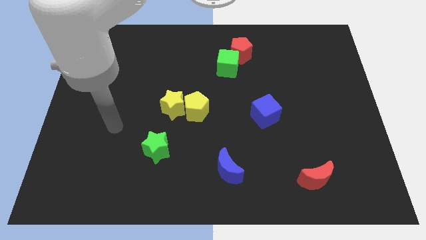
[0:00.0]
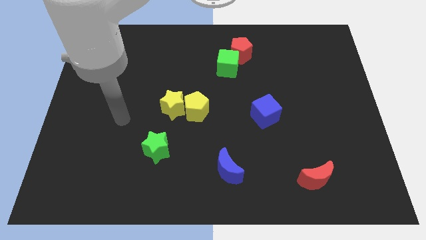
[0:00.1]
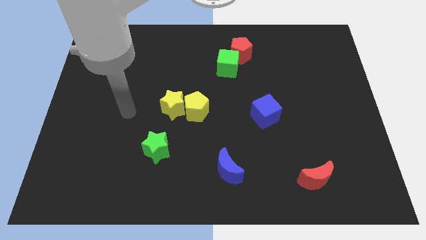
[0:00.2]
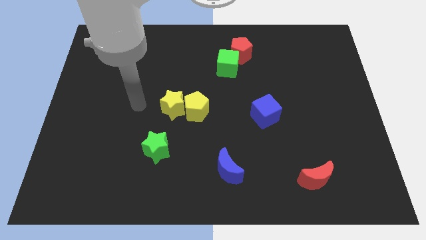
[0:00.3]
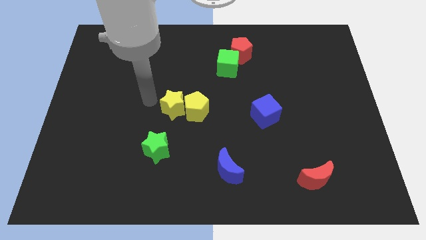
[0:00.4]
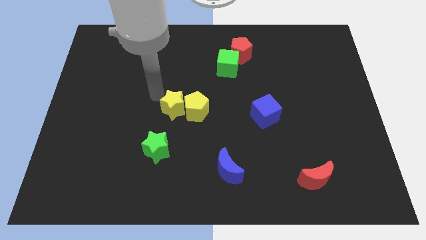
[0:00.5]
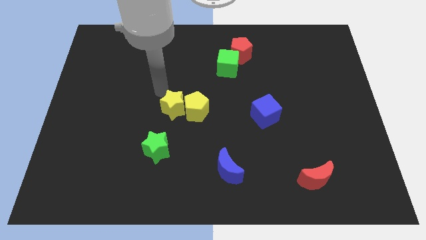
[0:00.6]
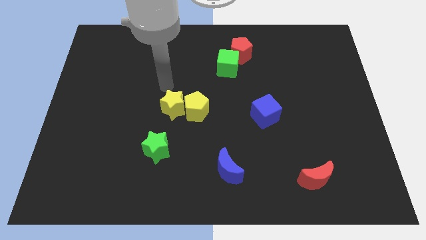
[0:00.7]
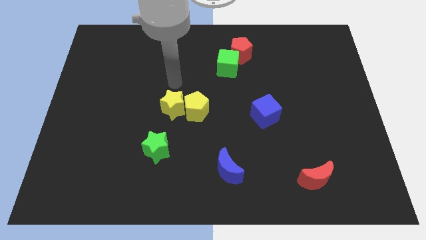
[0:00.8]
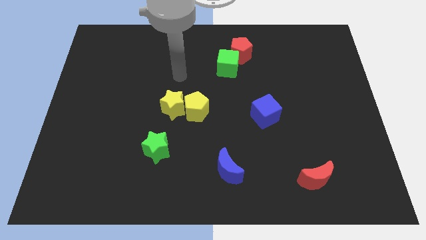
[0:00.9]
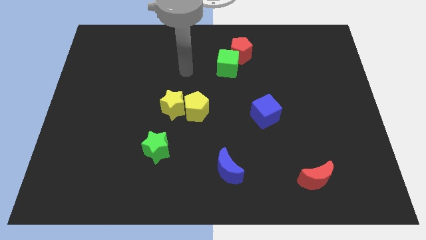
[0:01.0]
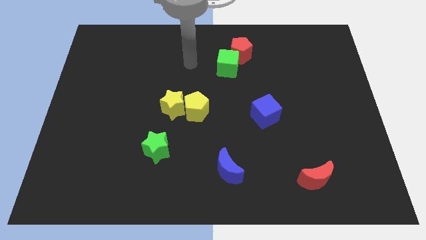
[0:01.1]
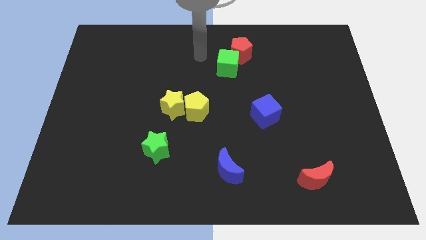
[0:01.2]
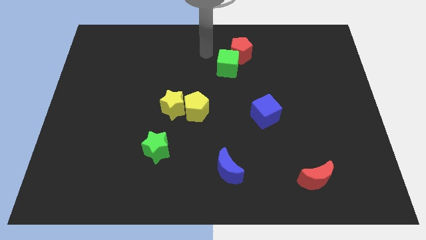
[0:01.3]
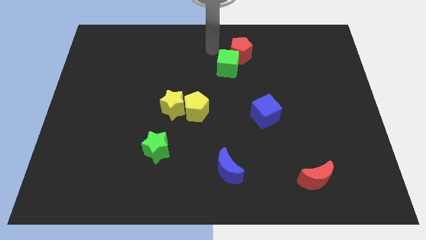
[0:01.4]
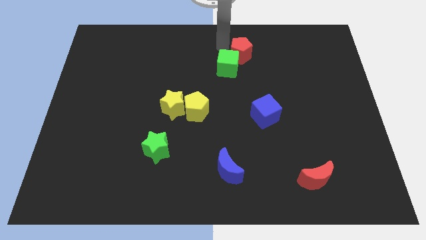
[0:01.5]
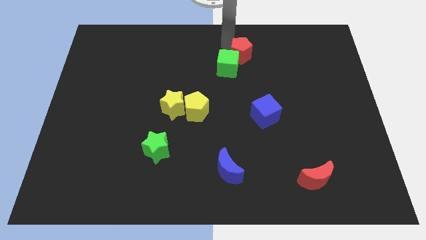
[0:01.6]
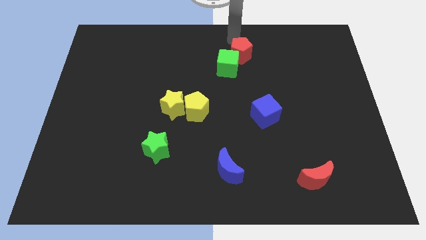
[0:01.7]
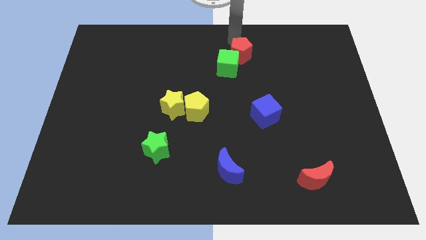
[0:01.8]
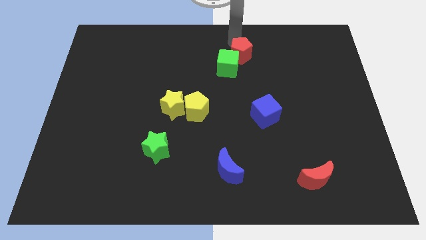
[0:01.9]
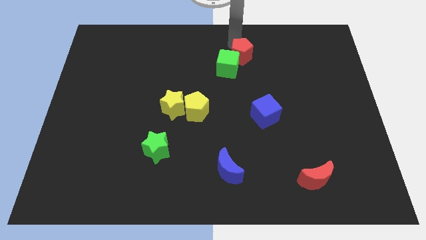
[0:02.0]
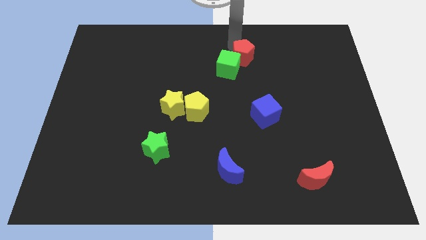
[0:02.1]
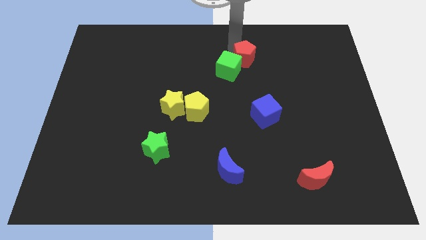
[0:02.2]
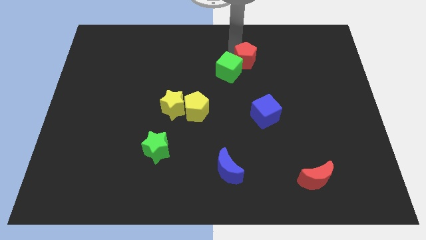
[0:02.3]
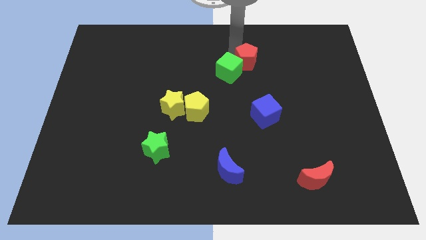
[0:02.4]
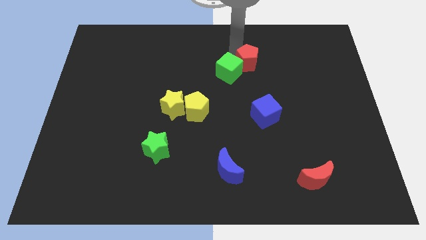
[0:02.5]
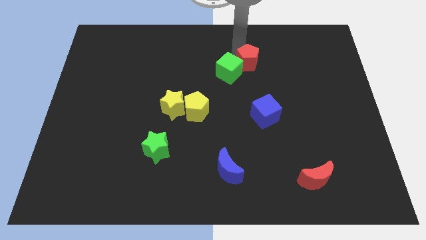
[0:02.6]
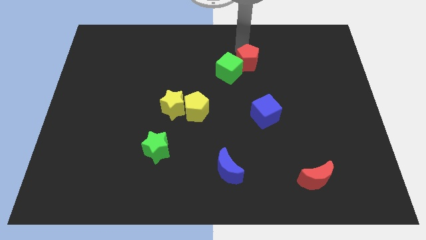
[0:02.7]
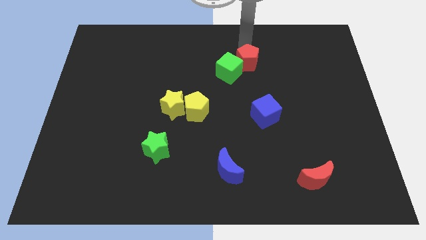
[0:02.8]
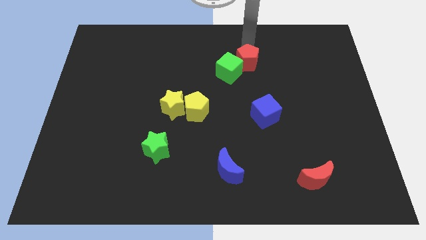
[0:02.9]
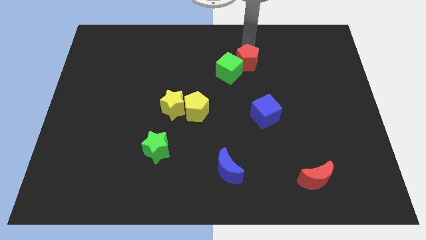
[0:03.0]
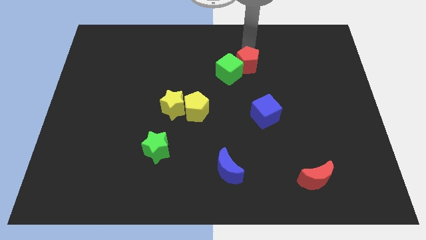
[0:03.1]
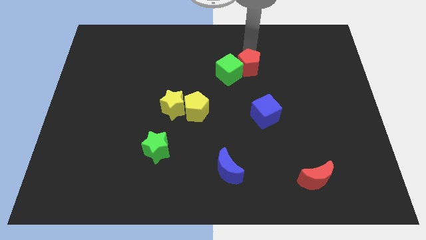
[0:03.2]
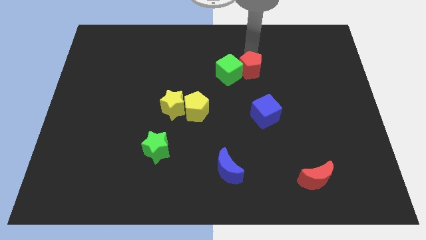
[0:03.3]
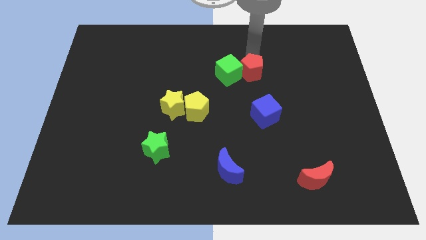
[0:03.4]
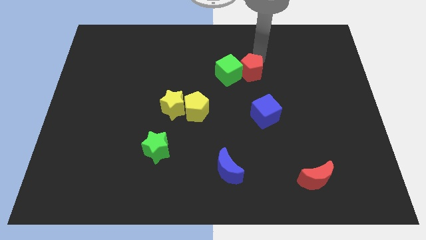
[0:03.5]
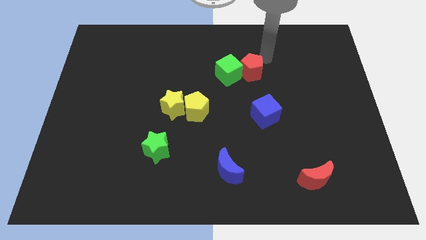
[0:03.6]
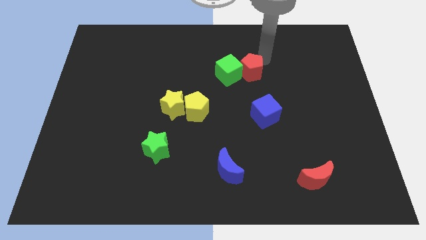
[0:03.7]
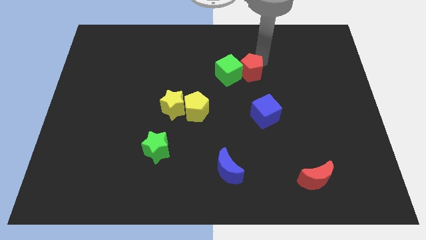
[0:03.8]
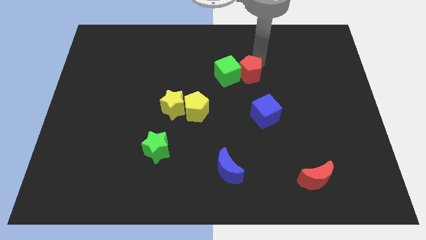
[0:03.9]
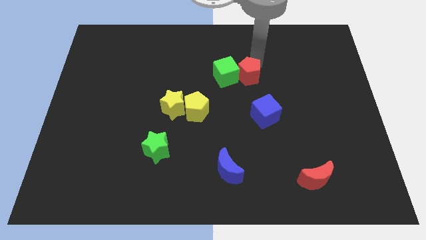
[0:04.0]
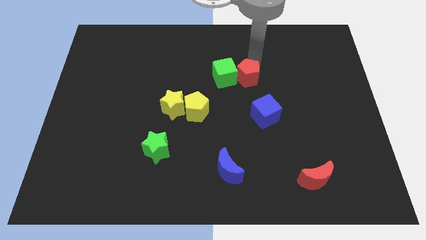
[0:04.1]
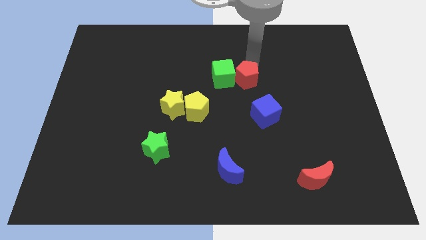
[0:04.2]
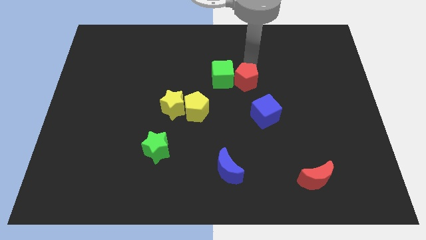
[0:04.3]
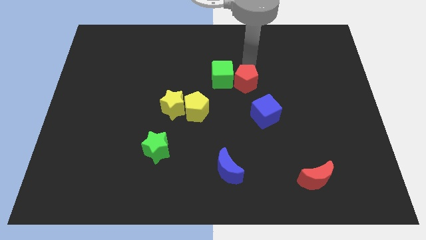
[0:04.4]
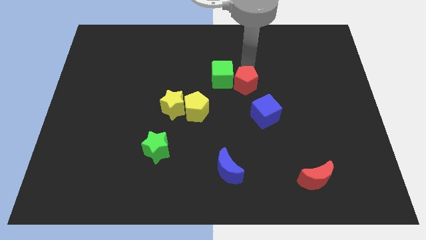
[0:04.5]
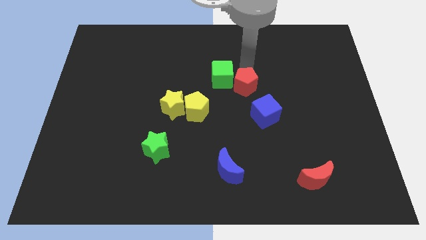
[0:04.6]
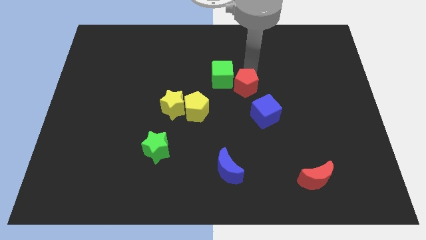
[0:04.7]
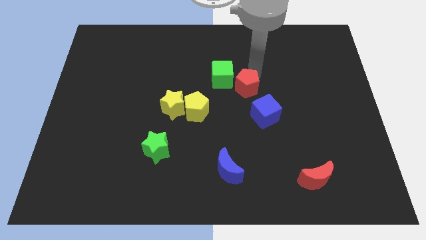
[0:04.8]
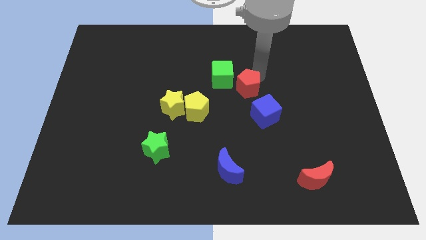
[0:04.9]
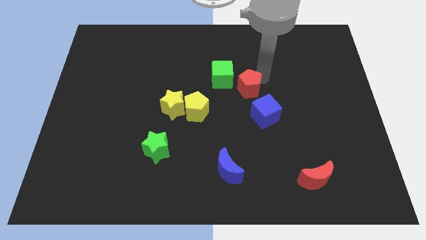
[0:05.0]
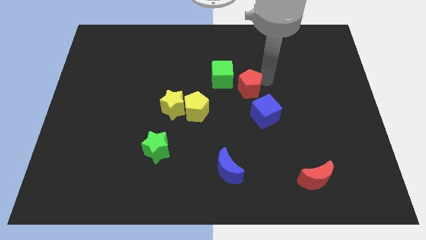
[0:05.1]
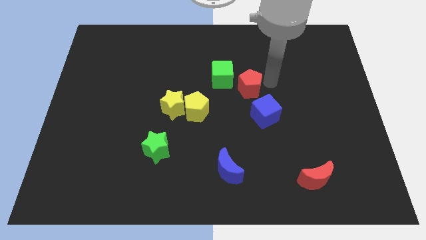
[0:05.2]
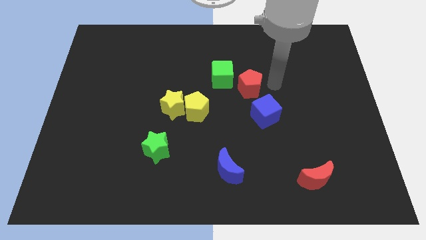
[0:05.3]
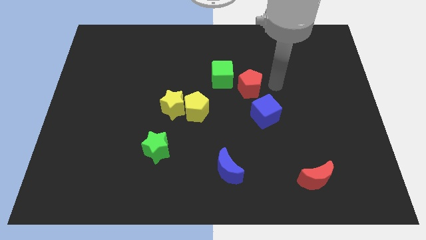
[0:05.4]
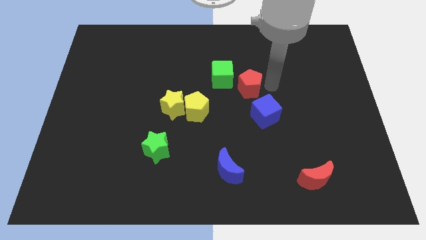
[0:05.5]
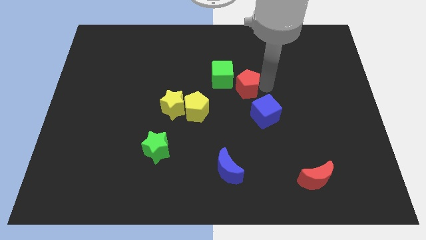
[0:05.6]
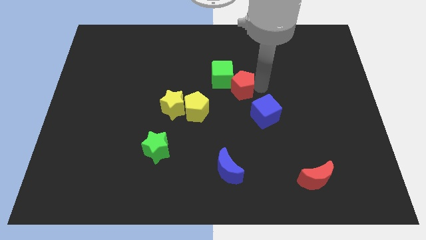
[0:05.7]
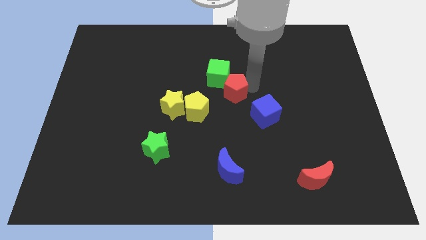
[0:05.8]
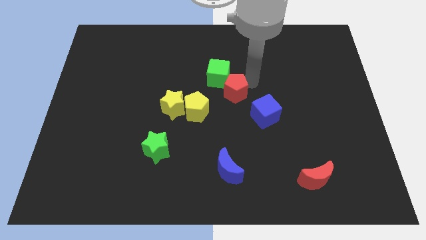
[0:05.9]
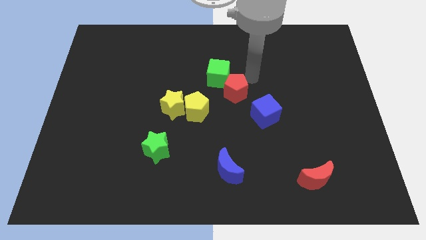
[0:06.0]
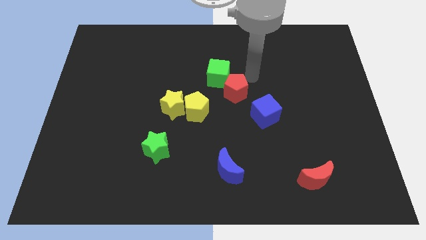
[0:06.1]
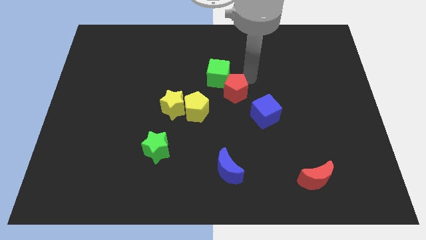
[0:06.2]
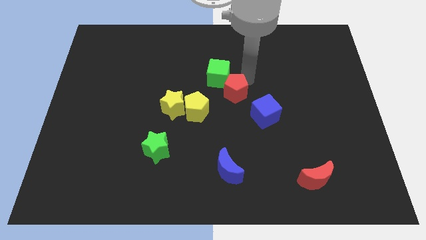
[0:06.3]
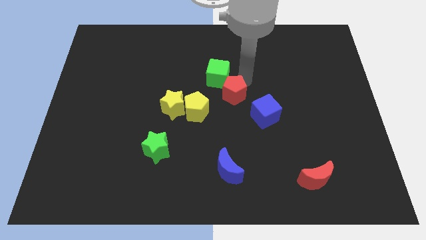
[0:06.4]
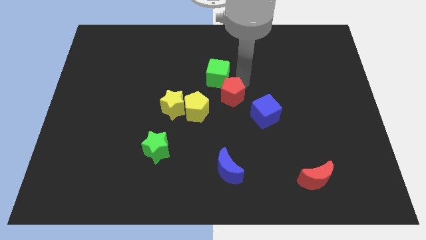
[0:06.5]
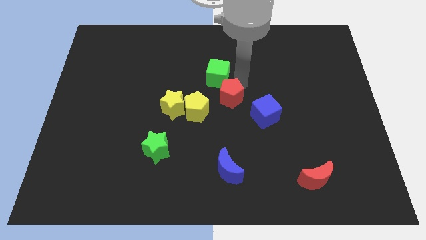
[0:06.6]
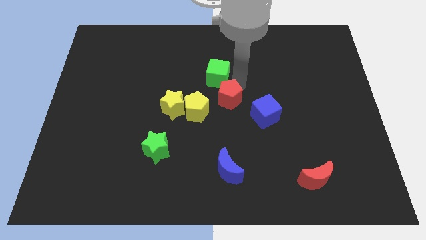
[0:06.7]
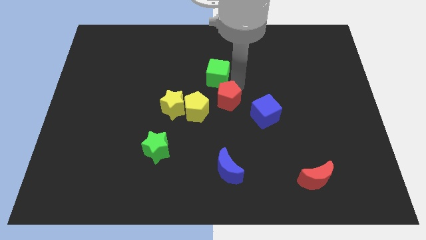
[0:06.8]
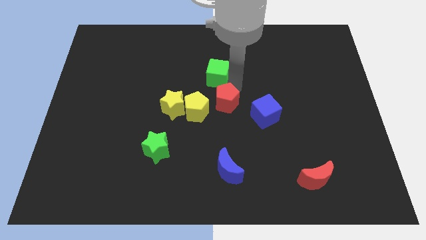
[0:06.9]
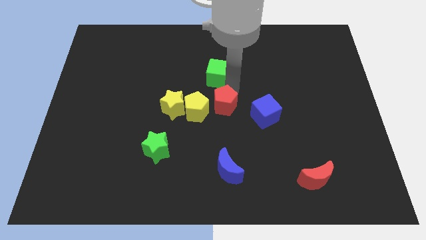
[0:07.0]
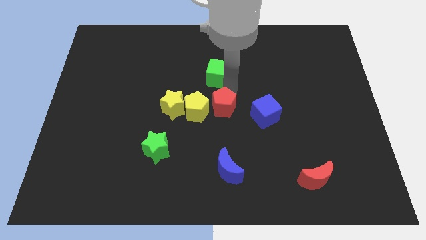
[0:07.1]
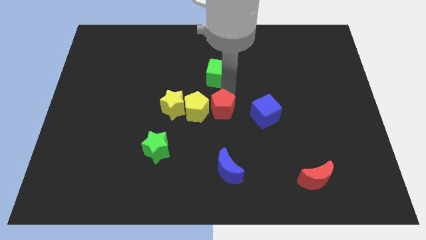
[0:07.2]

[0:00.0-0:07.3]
slide the red pentagon to the bottom right of the yellow pentagon
